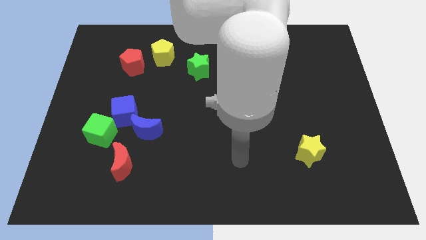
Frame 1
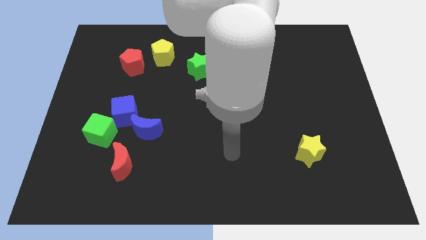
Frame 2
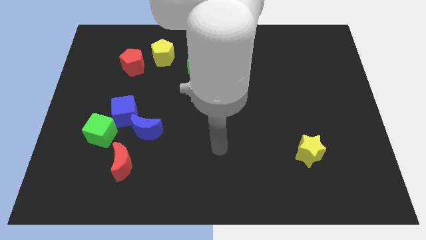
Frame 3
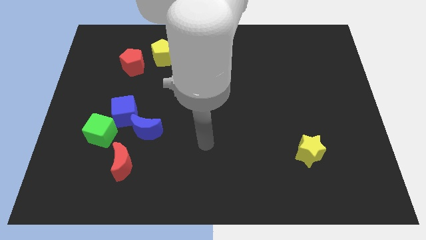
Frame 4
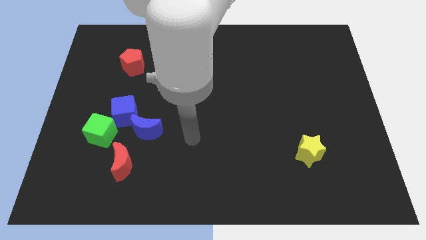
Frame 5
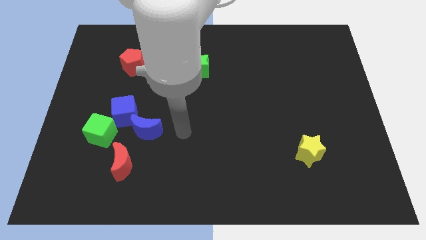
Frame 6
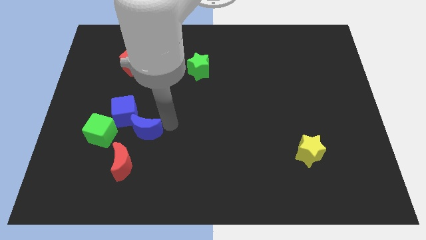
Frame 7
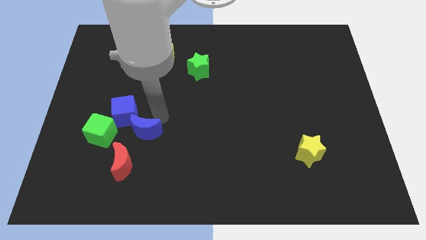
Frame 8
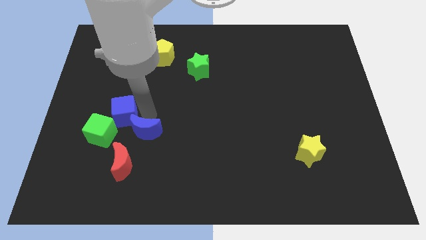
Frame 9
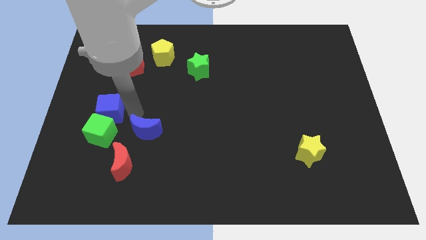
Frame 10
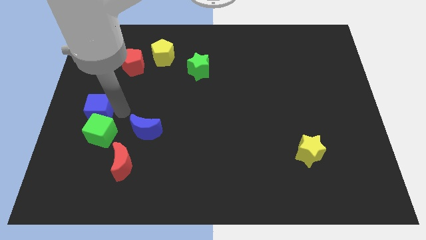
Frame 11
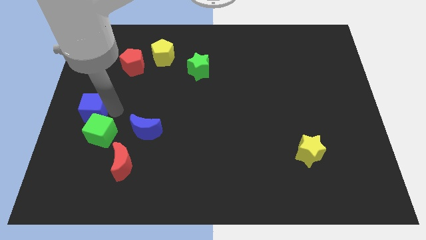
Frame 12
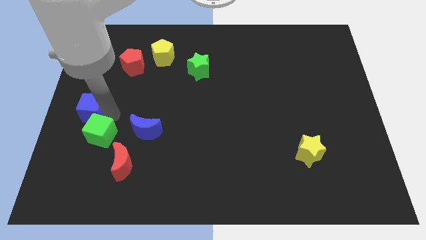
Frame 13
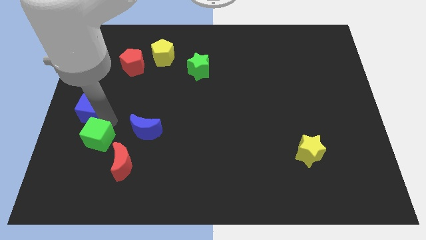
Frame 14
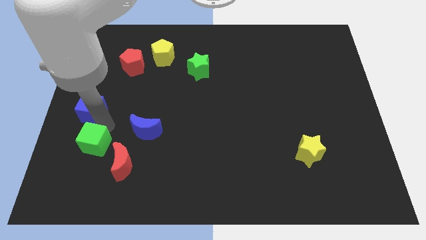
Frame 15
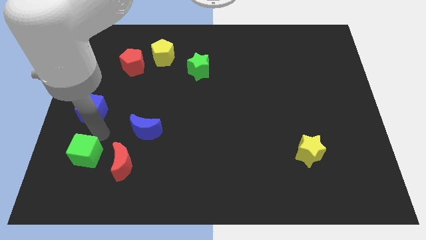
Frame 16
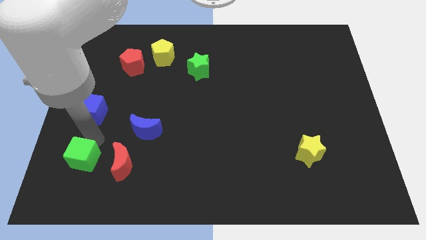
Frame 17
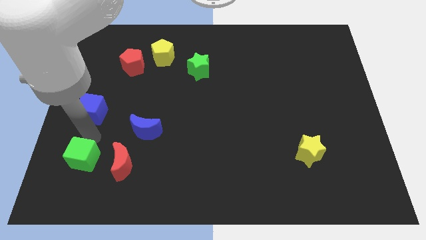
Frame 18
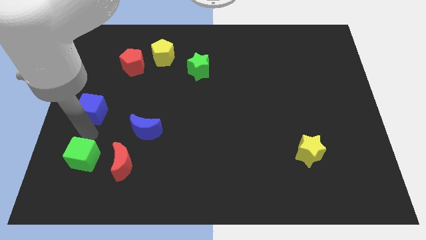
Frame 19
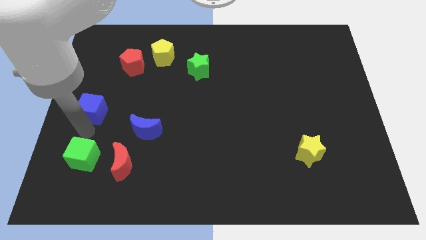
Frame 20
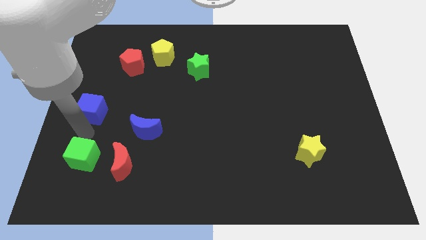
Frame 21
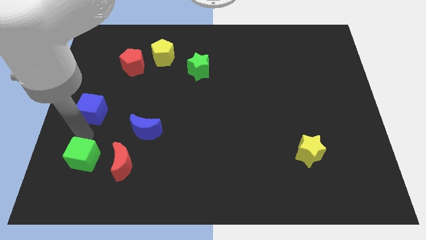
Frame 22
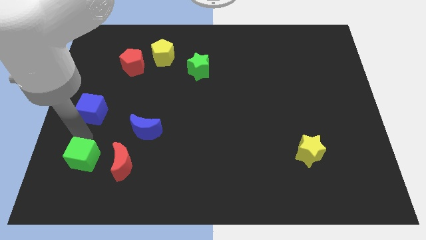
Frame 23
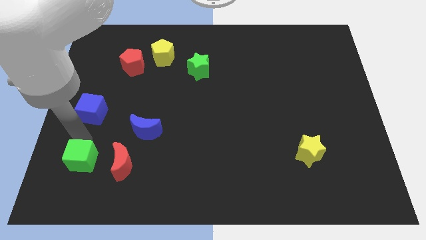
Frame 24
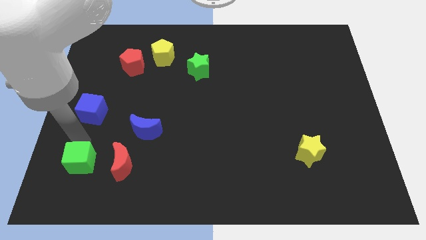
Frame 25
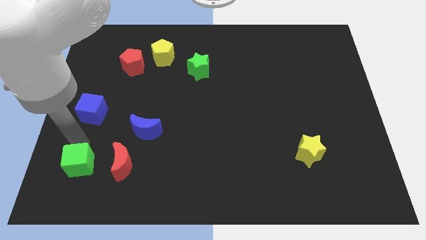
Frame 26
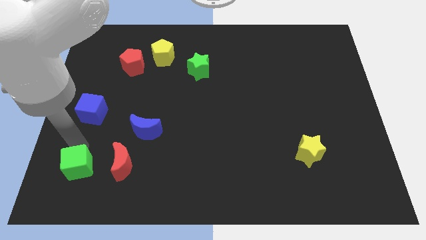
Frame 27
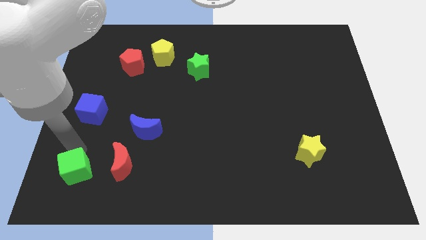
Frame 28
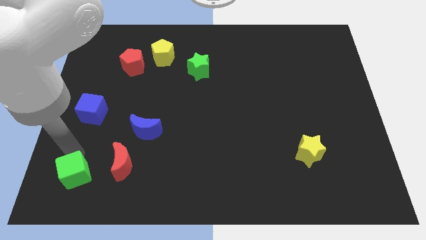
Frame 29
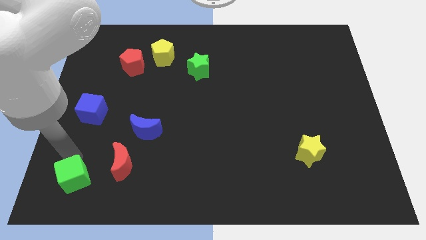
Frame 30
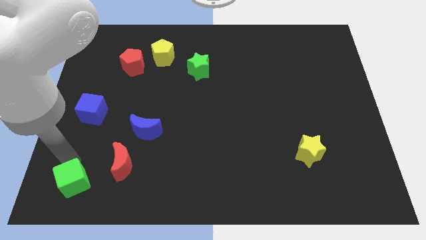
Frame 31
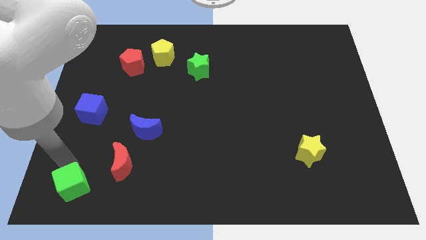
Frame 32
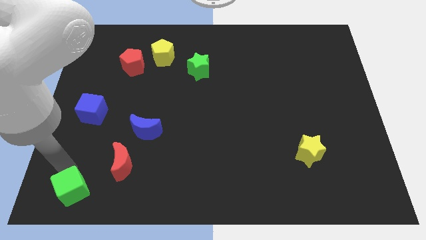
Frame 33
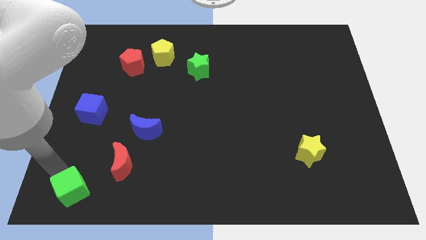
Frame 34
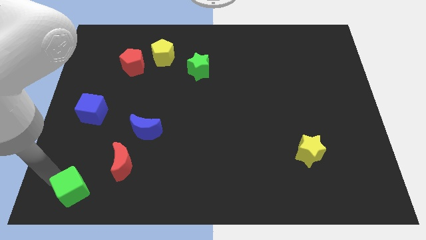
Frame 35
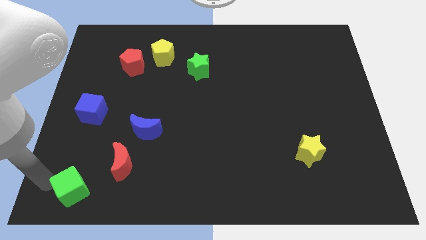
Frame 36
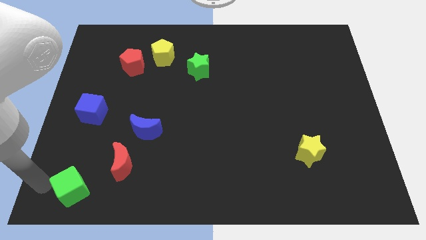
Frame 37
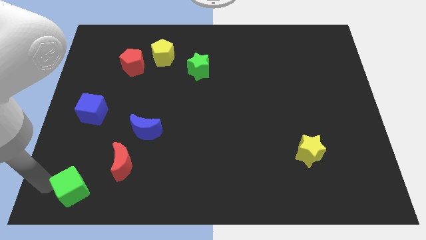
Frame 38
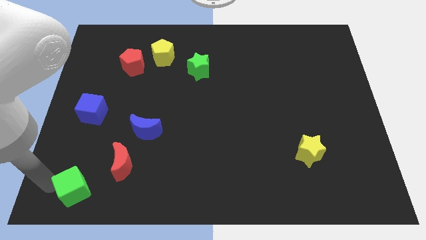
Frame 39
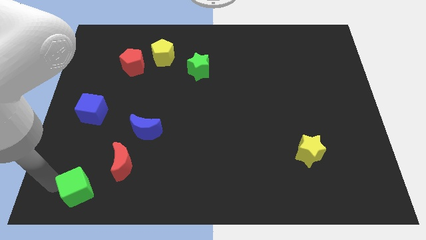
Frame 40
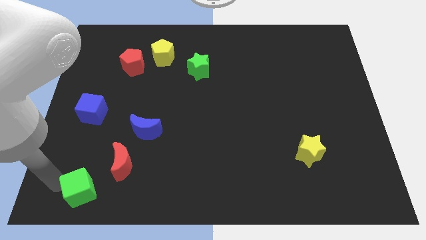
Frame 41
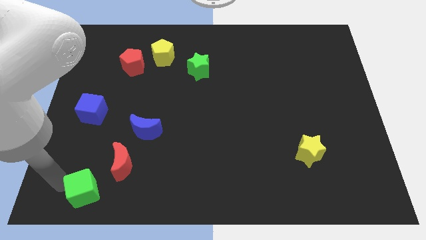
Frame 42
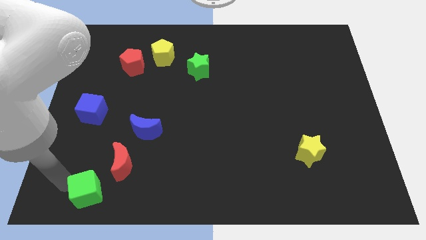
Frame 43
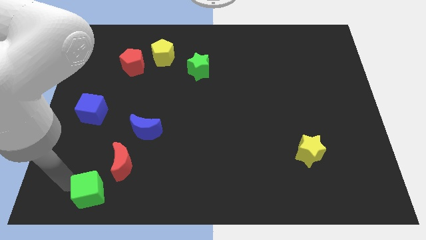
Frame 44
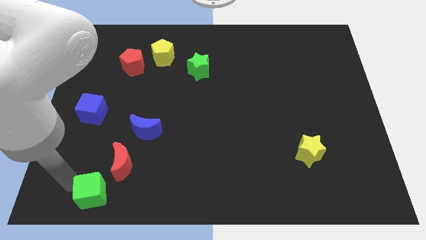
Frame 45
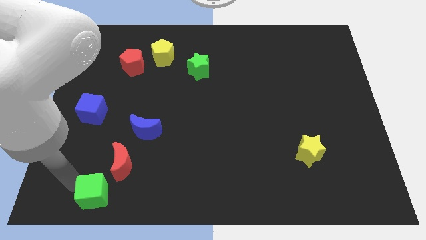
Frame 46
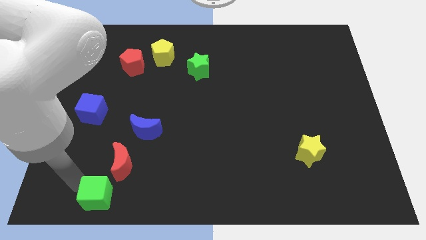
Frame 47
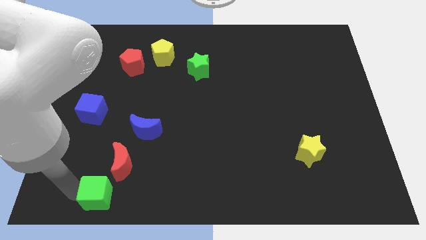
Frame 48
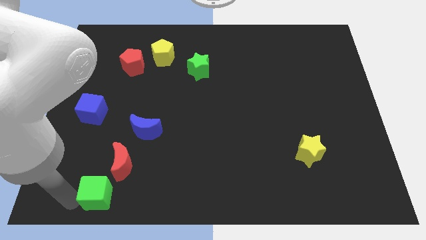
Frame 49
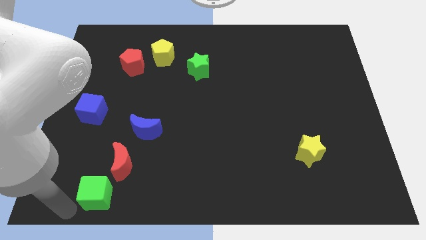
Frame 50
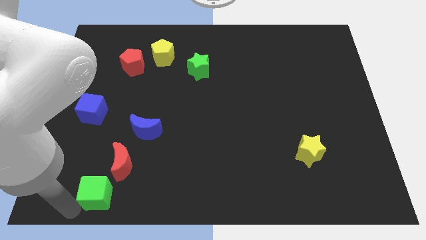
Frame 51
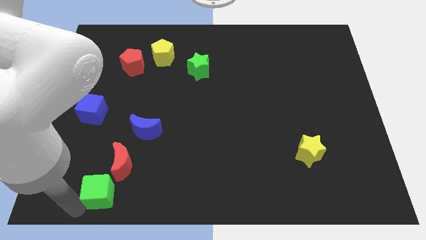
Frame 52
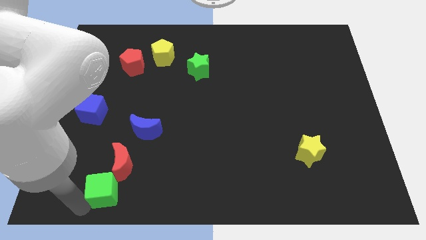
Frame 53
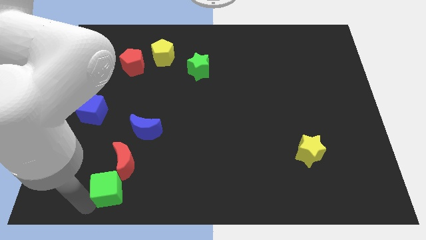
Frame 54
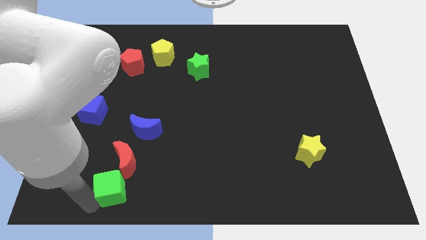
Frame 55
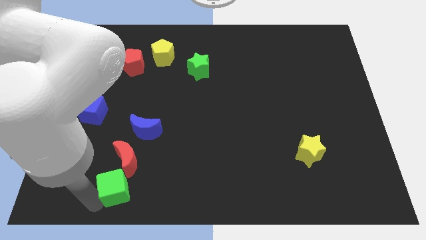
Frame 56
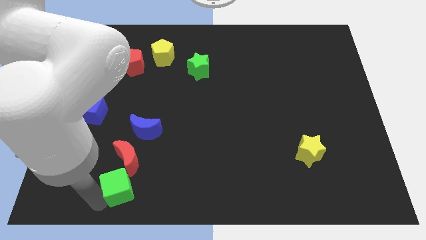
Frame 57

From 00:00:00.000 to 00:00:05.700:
move the green cube below the blue moon
